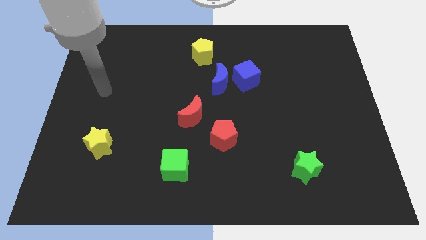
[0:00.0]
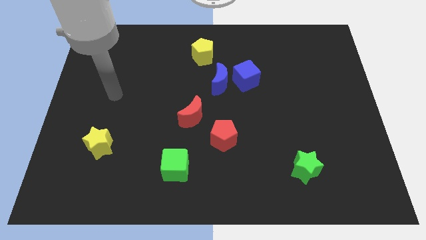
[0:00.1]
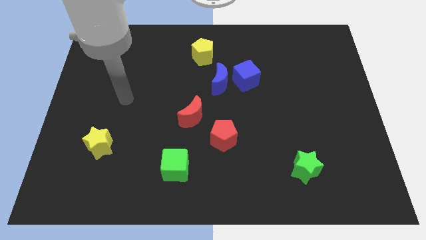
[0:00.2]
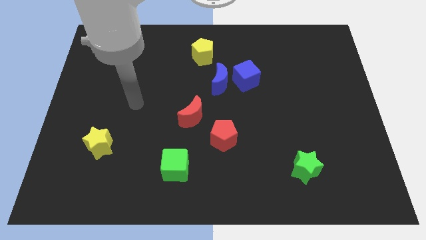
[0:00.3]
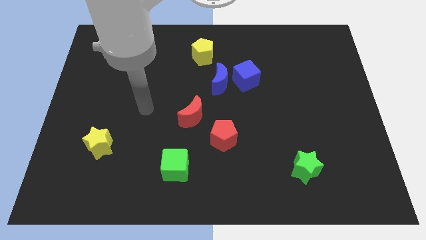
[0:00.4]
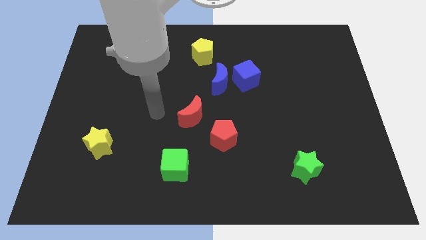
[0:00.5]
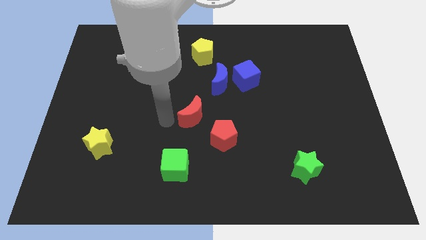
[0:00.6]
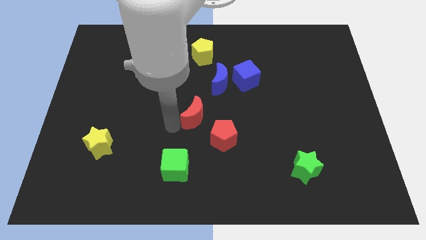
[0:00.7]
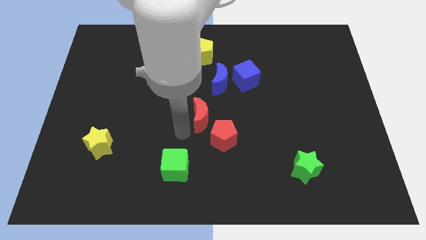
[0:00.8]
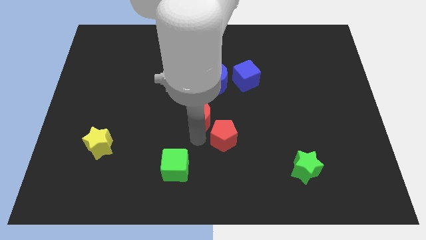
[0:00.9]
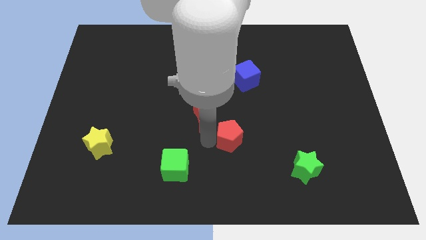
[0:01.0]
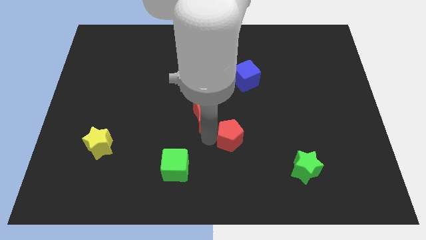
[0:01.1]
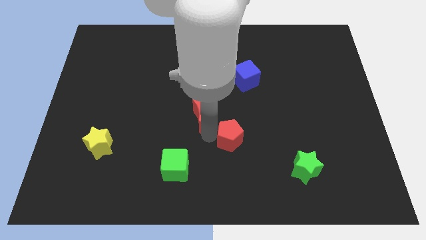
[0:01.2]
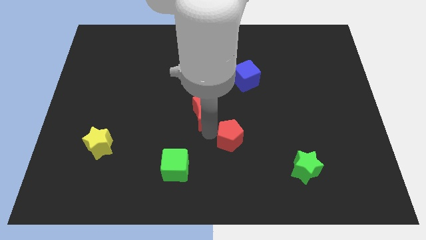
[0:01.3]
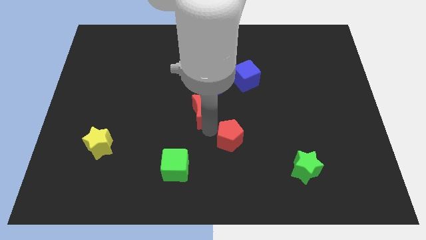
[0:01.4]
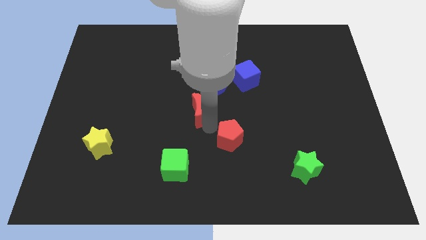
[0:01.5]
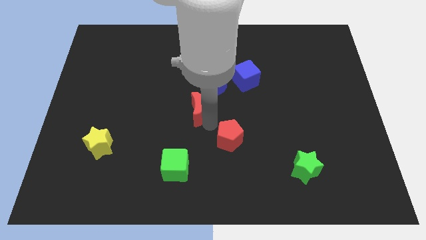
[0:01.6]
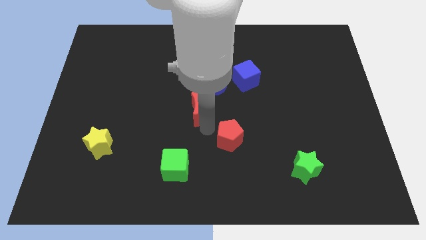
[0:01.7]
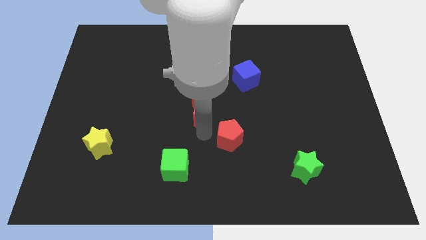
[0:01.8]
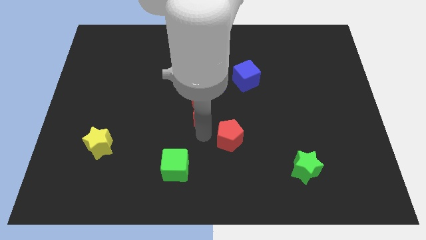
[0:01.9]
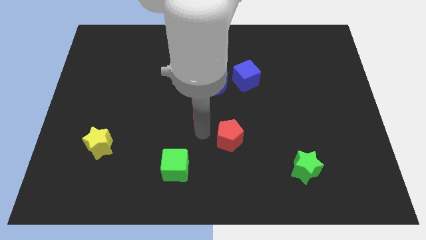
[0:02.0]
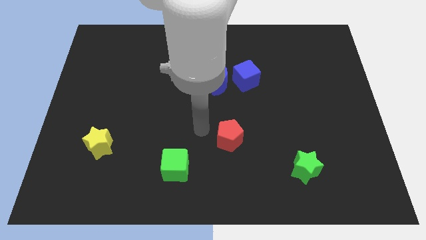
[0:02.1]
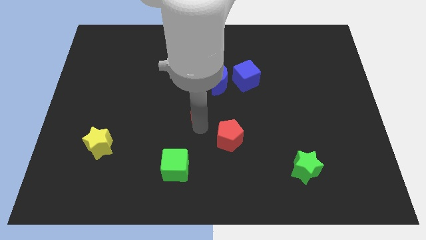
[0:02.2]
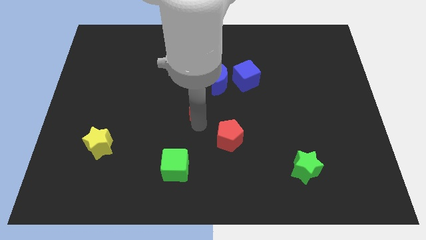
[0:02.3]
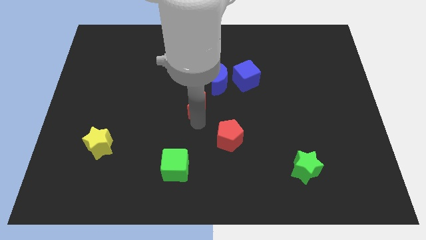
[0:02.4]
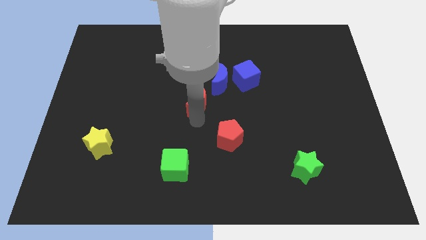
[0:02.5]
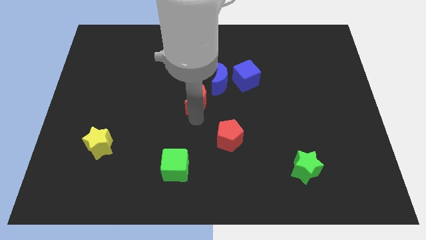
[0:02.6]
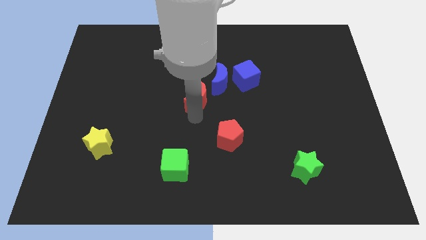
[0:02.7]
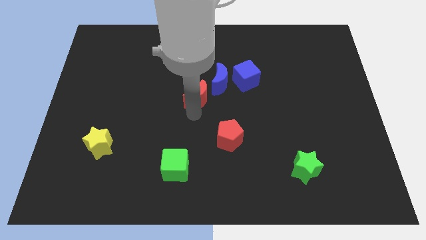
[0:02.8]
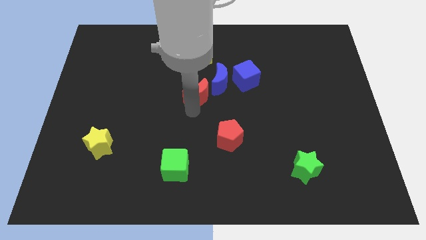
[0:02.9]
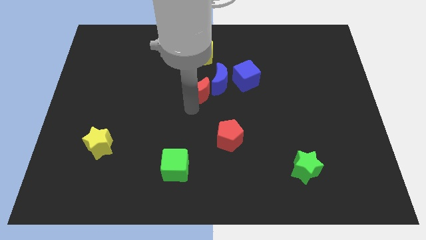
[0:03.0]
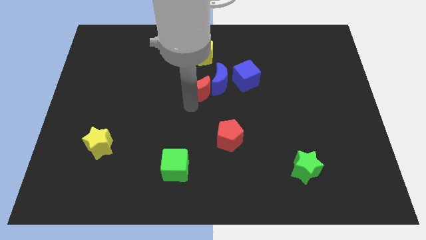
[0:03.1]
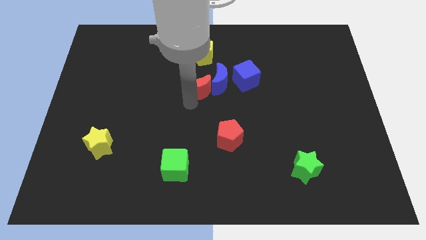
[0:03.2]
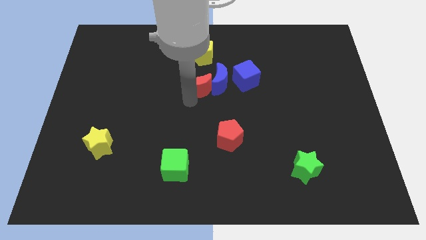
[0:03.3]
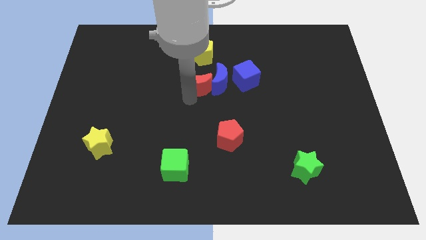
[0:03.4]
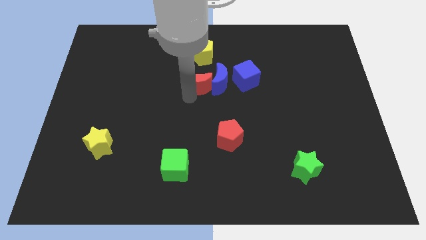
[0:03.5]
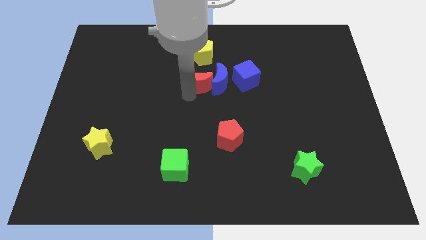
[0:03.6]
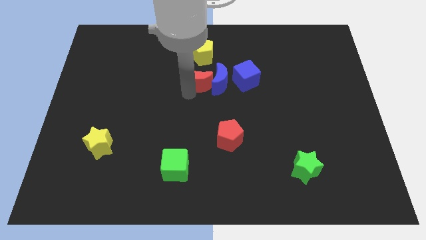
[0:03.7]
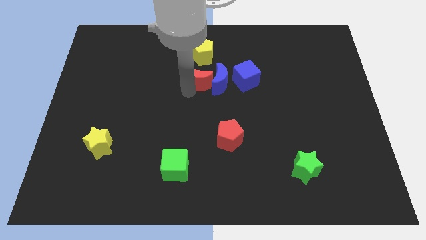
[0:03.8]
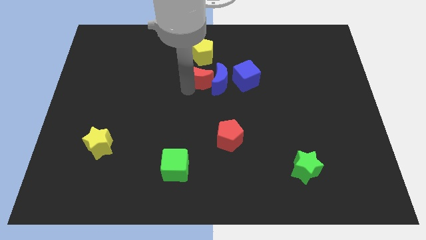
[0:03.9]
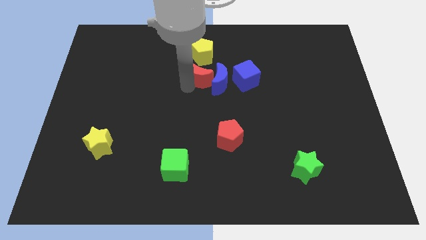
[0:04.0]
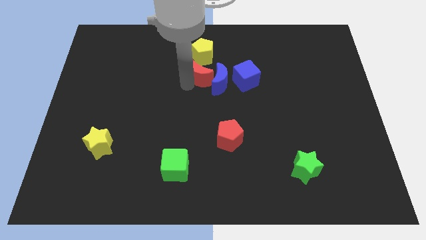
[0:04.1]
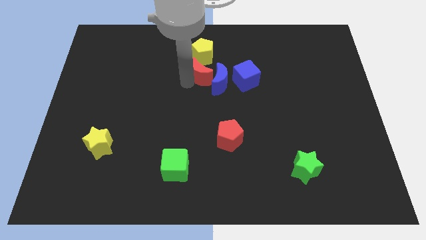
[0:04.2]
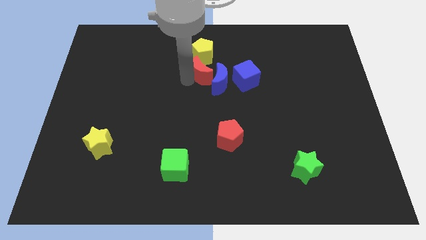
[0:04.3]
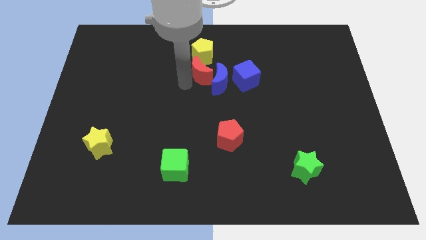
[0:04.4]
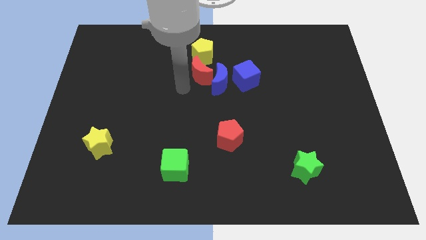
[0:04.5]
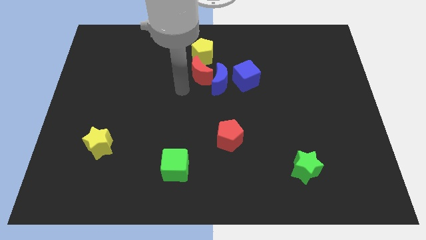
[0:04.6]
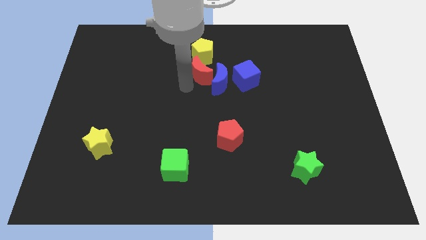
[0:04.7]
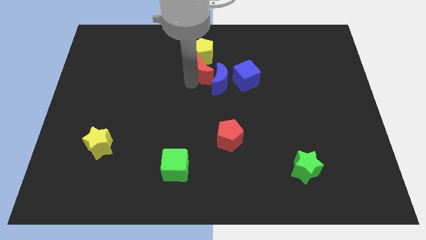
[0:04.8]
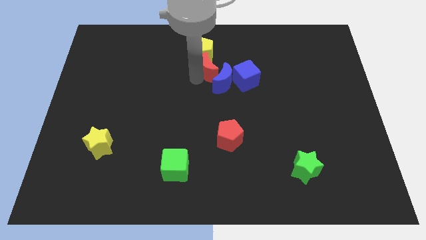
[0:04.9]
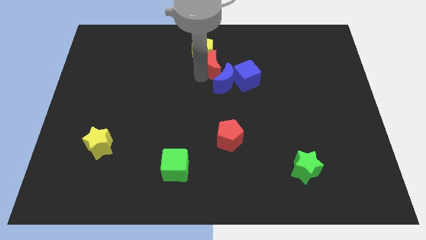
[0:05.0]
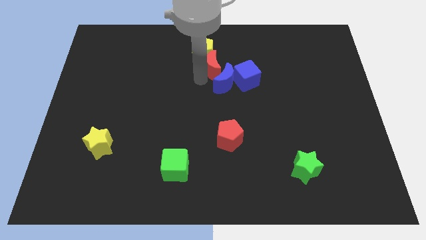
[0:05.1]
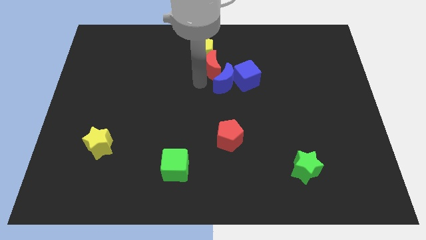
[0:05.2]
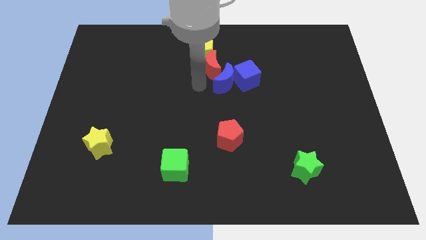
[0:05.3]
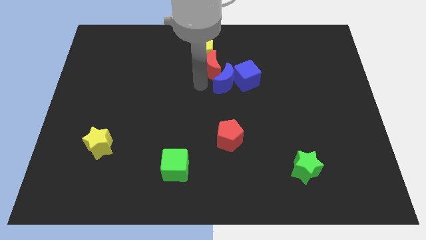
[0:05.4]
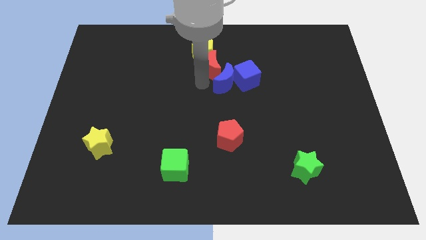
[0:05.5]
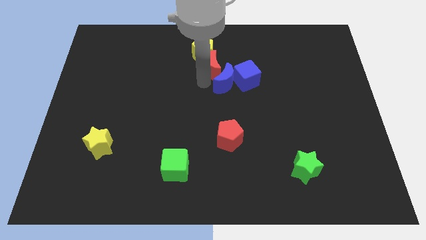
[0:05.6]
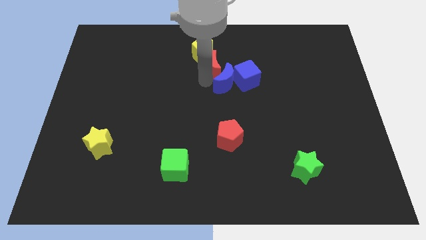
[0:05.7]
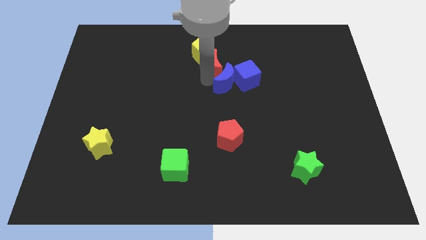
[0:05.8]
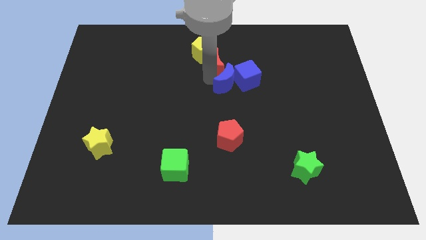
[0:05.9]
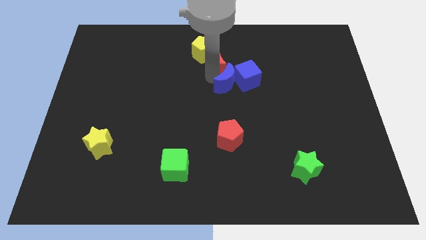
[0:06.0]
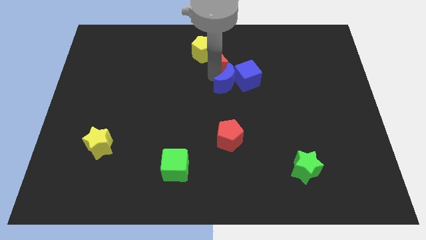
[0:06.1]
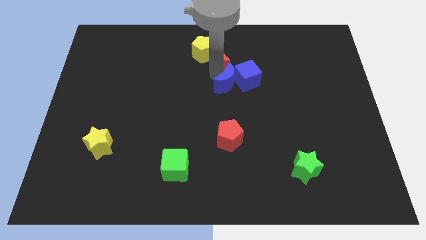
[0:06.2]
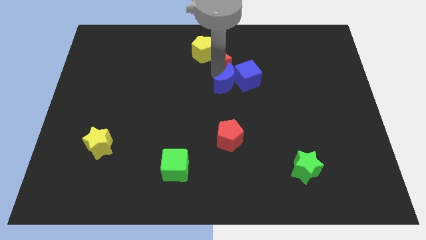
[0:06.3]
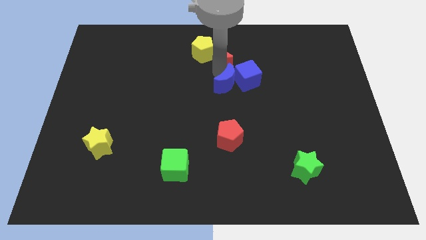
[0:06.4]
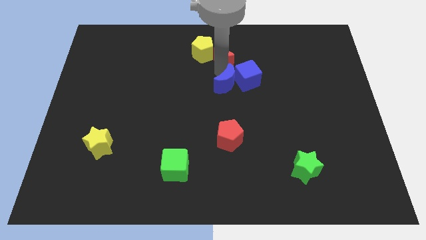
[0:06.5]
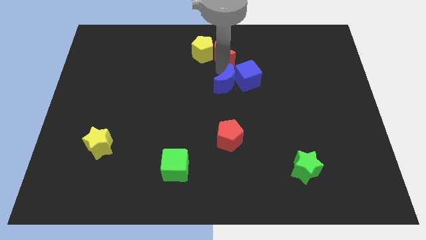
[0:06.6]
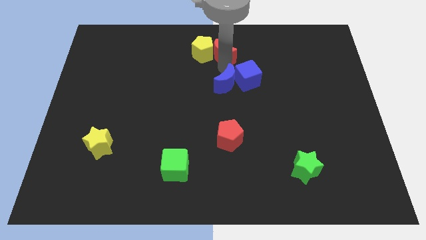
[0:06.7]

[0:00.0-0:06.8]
put the red moon to the top side

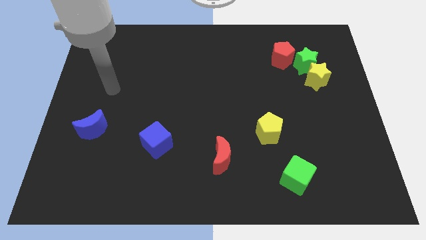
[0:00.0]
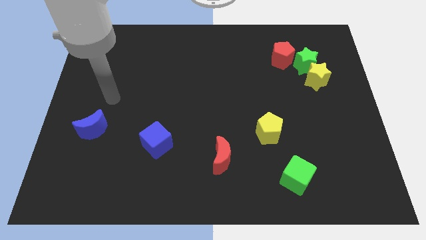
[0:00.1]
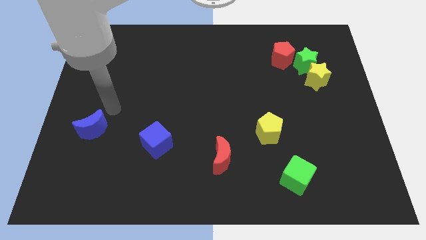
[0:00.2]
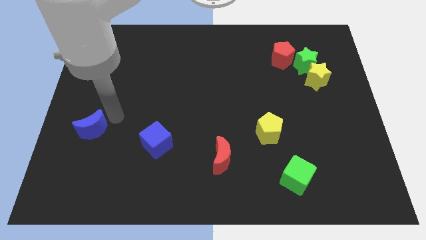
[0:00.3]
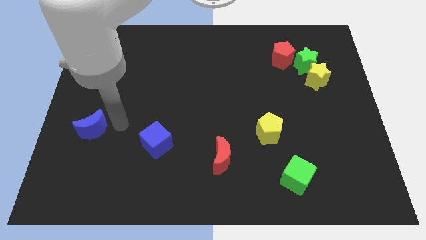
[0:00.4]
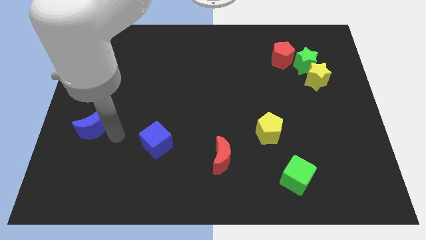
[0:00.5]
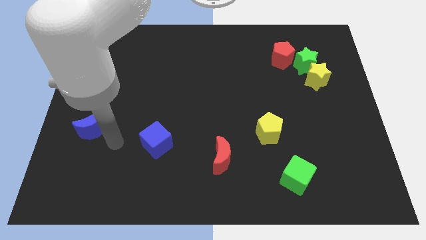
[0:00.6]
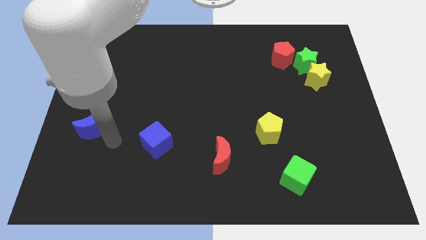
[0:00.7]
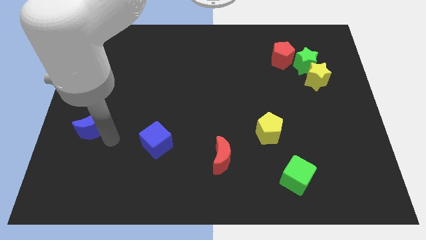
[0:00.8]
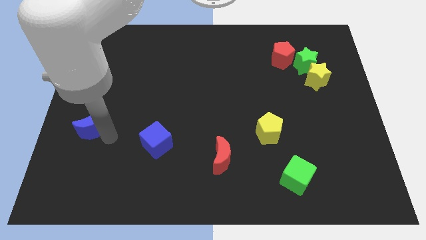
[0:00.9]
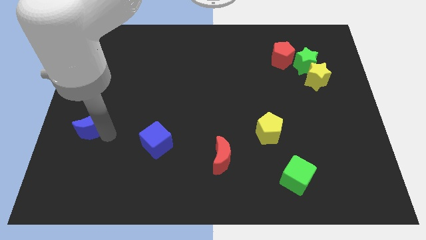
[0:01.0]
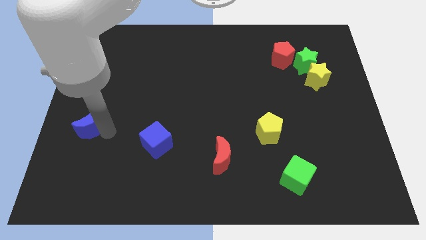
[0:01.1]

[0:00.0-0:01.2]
slide the blue moon to the center left
